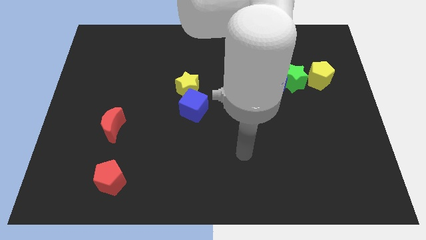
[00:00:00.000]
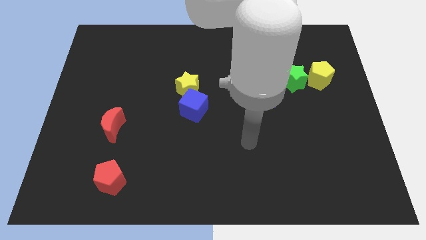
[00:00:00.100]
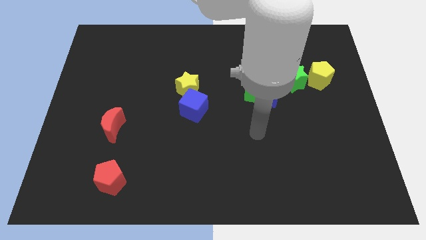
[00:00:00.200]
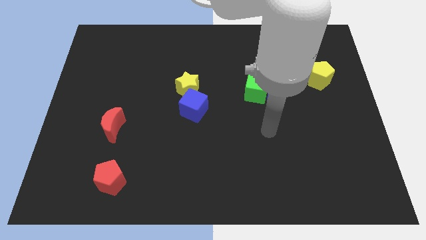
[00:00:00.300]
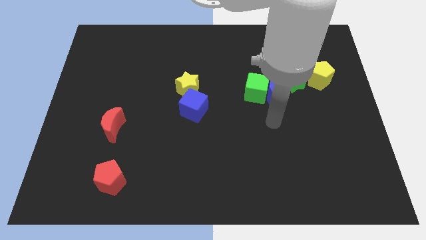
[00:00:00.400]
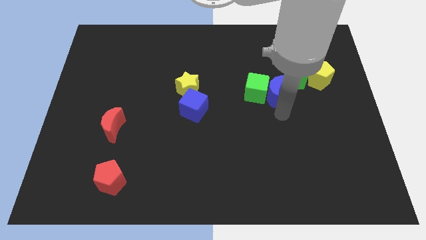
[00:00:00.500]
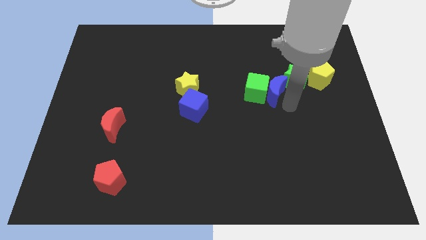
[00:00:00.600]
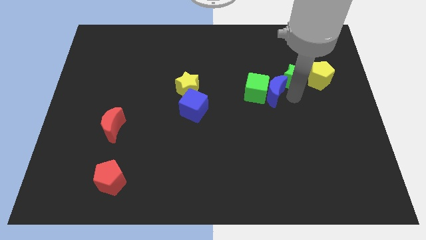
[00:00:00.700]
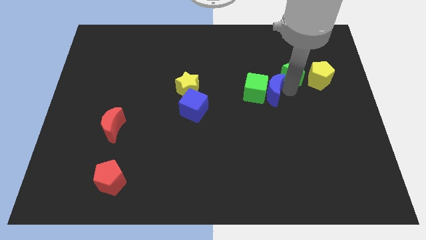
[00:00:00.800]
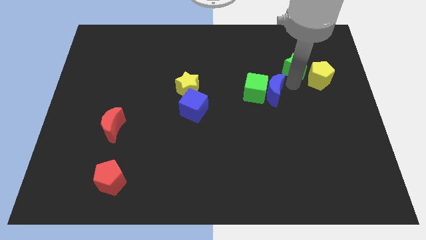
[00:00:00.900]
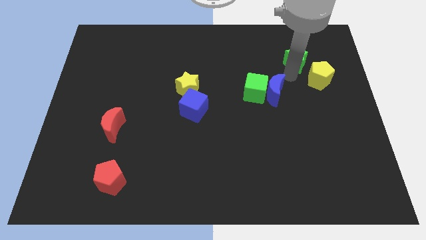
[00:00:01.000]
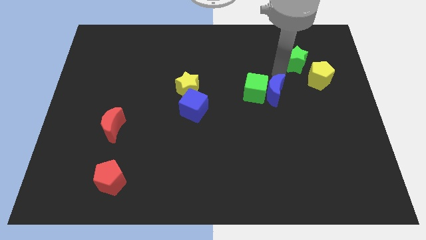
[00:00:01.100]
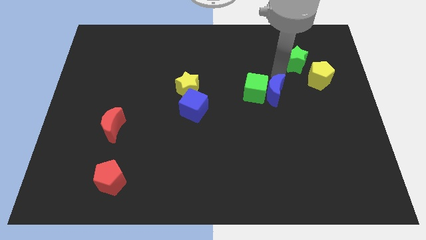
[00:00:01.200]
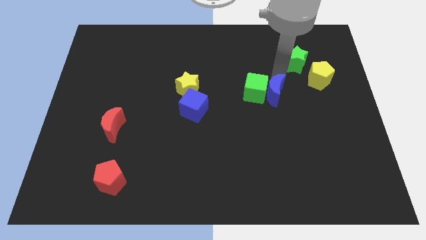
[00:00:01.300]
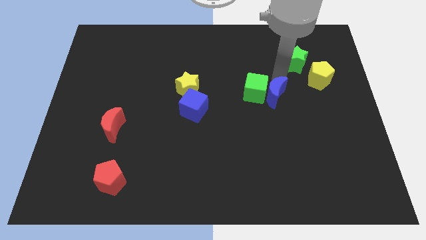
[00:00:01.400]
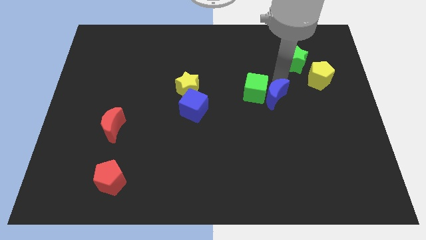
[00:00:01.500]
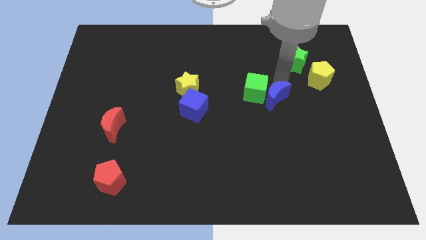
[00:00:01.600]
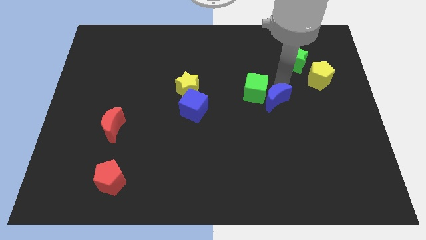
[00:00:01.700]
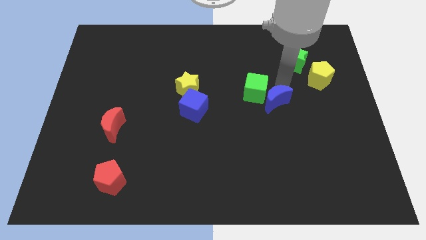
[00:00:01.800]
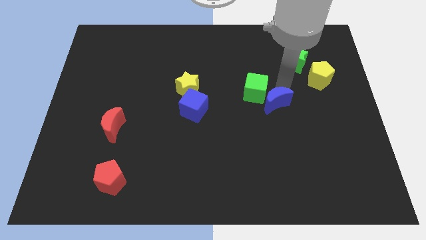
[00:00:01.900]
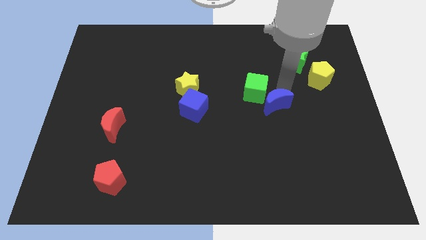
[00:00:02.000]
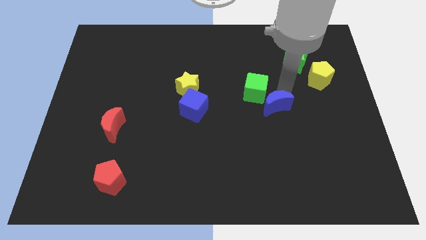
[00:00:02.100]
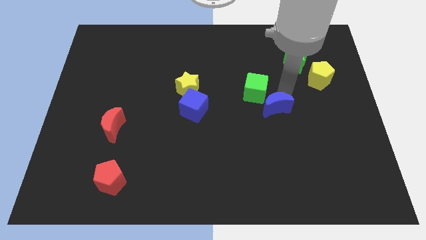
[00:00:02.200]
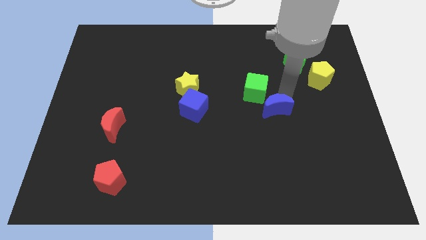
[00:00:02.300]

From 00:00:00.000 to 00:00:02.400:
move the blue moon away from the green cube and green star

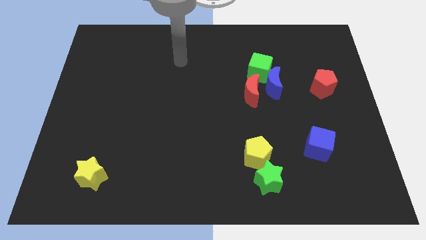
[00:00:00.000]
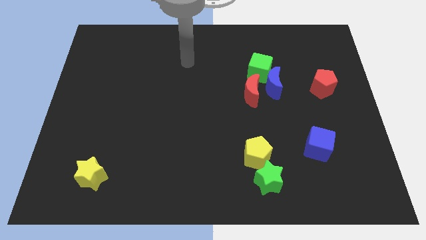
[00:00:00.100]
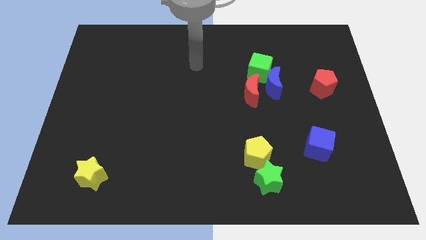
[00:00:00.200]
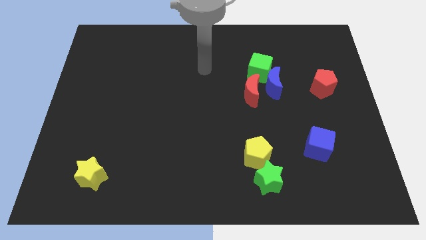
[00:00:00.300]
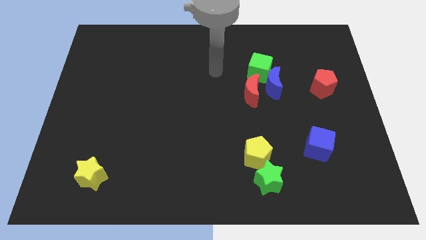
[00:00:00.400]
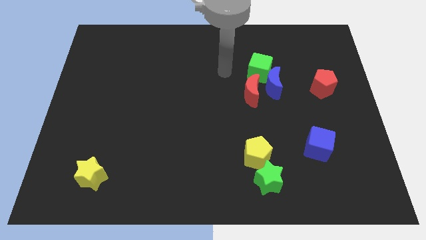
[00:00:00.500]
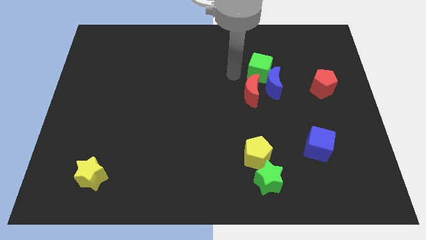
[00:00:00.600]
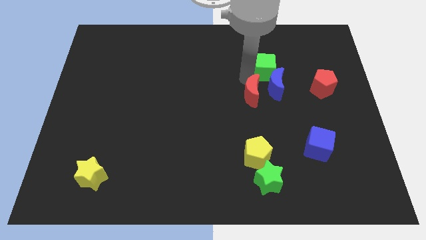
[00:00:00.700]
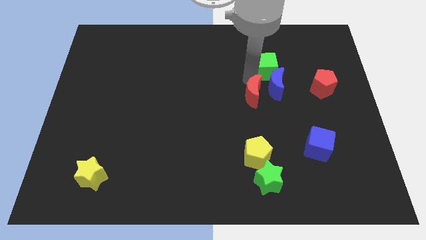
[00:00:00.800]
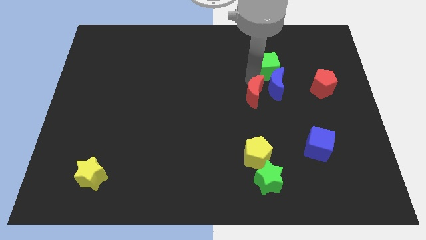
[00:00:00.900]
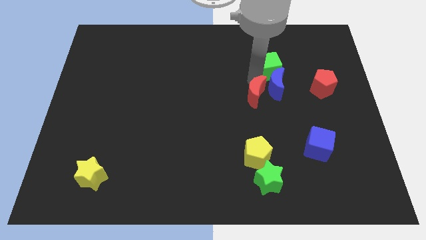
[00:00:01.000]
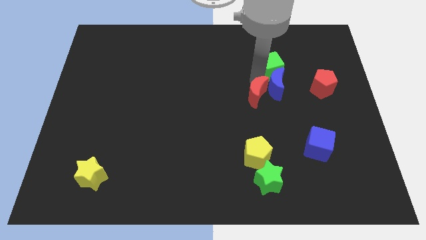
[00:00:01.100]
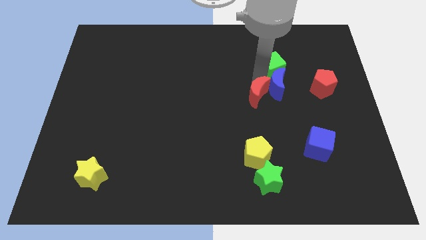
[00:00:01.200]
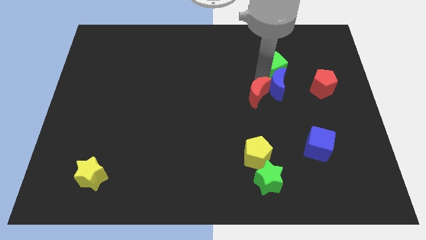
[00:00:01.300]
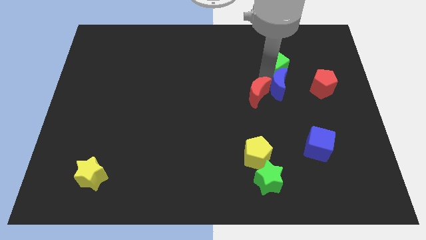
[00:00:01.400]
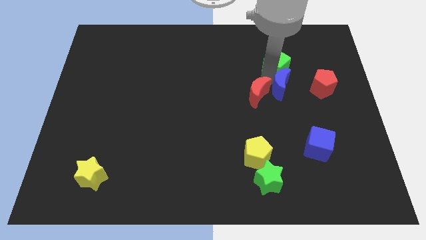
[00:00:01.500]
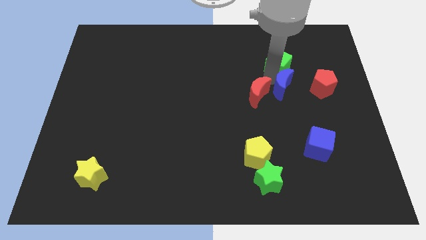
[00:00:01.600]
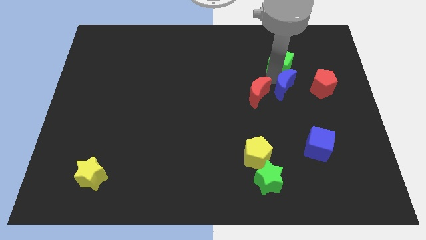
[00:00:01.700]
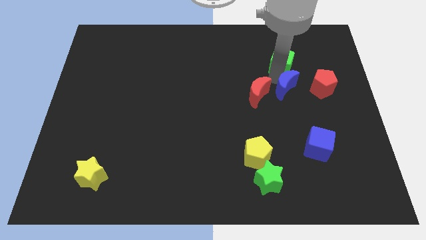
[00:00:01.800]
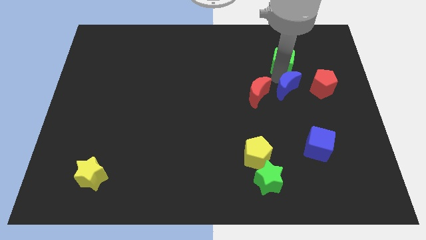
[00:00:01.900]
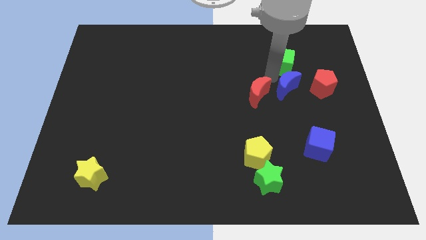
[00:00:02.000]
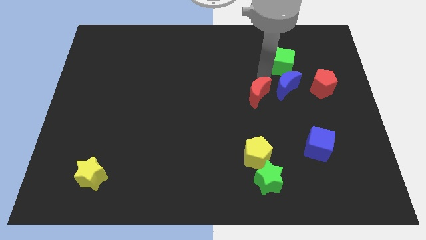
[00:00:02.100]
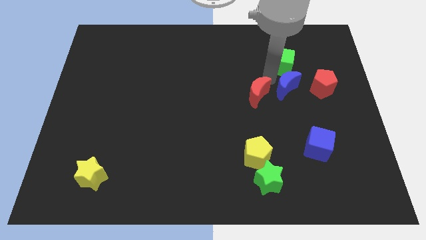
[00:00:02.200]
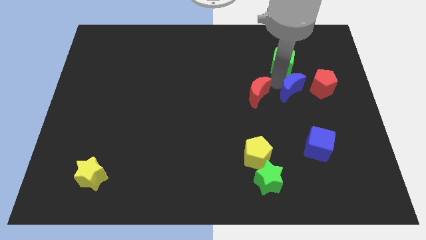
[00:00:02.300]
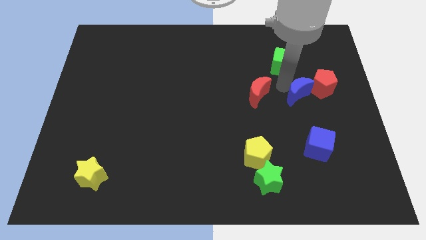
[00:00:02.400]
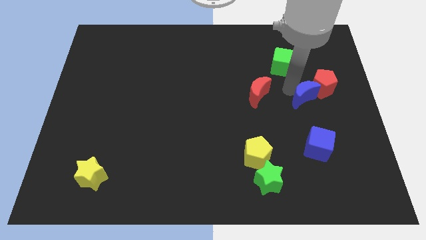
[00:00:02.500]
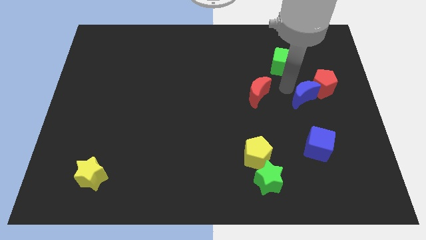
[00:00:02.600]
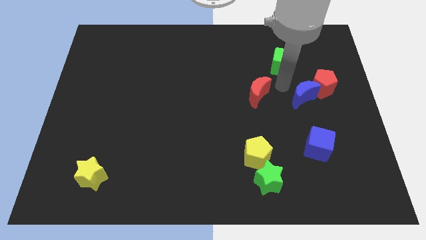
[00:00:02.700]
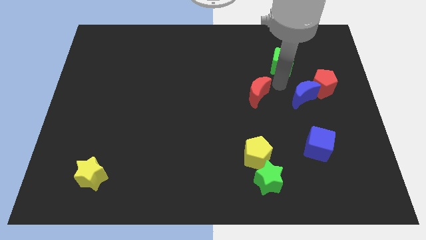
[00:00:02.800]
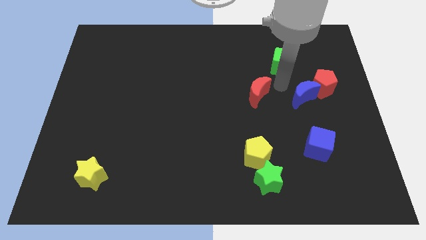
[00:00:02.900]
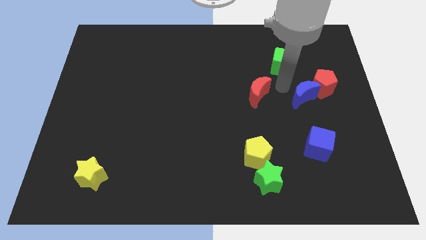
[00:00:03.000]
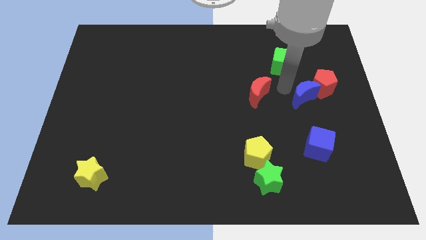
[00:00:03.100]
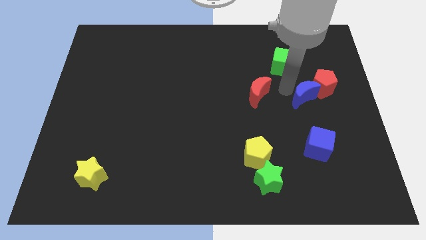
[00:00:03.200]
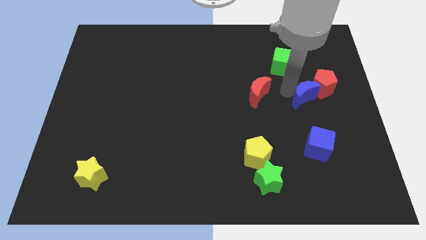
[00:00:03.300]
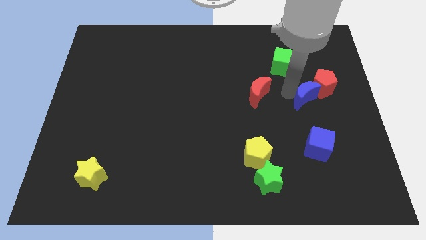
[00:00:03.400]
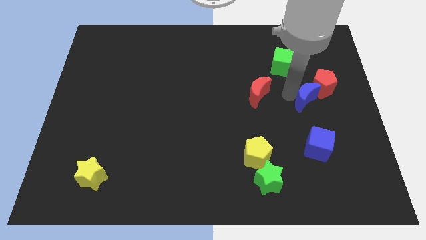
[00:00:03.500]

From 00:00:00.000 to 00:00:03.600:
separate the blue moon from the green cube and red moon

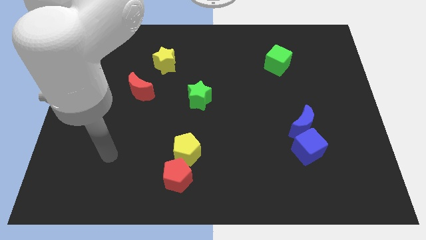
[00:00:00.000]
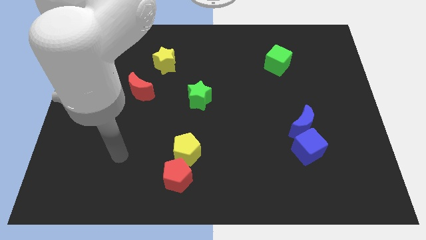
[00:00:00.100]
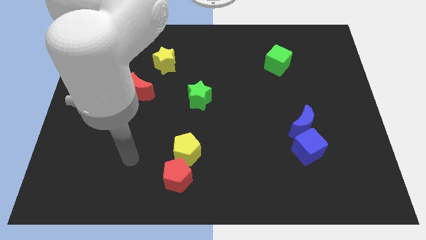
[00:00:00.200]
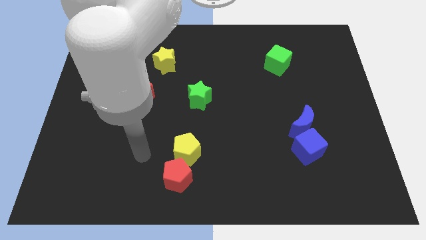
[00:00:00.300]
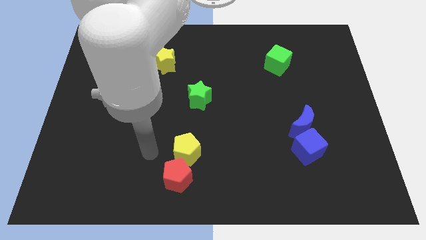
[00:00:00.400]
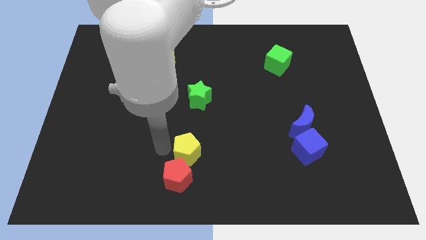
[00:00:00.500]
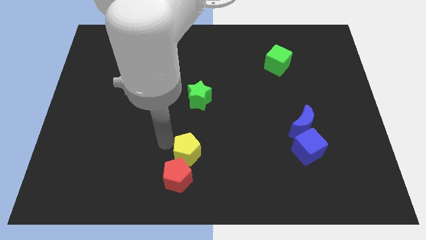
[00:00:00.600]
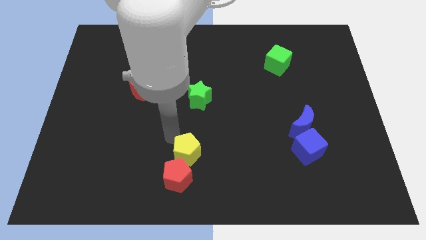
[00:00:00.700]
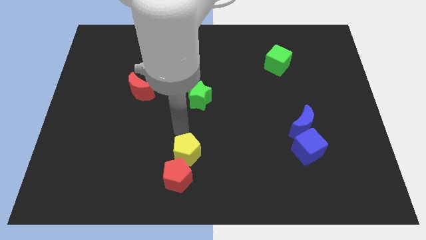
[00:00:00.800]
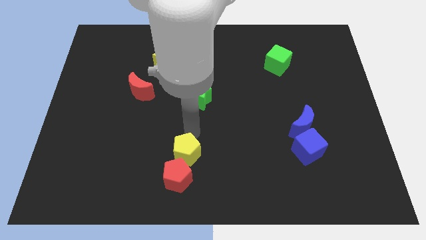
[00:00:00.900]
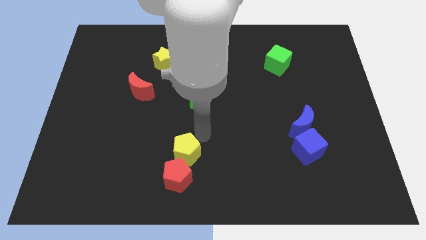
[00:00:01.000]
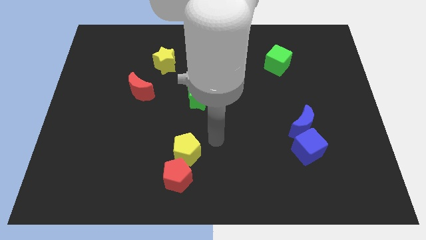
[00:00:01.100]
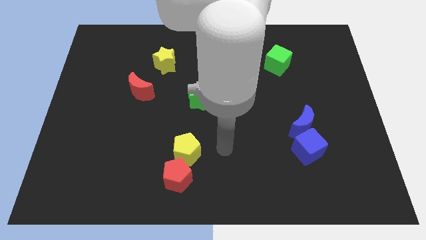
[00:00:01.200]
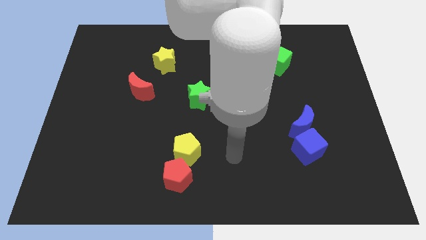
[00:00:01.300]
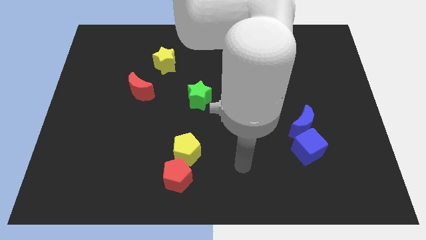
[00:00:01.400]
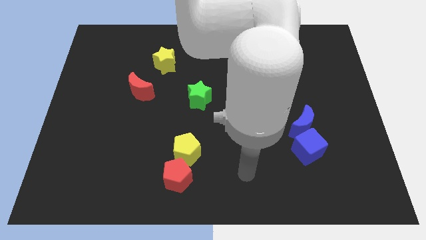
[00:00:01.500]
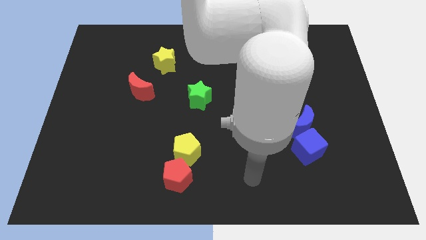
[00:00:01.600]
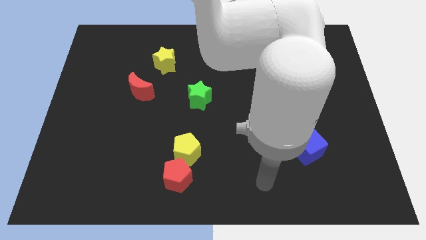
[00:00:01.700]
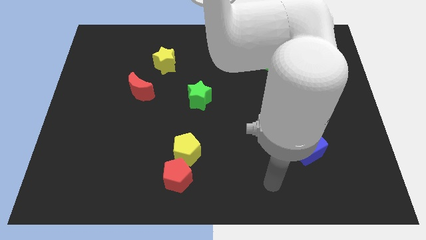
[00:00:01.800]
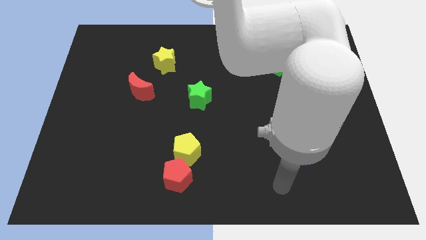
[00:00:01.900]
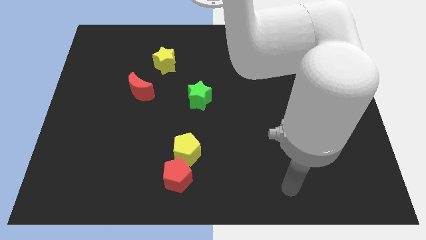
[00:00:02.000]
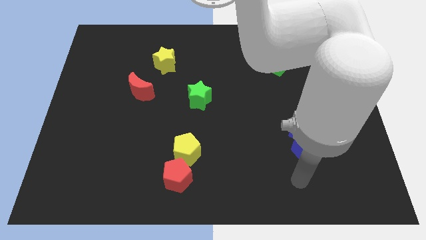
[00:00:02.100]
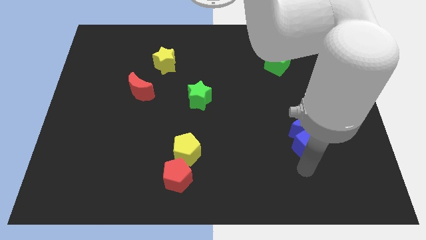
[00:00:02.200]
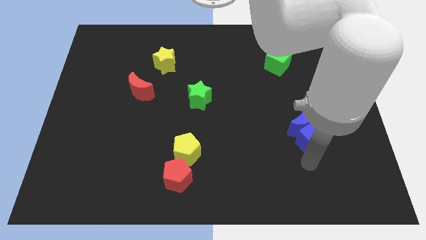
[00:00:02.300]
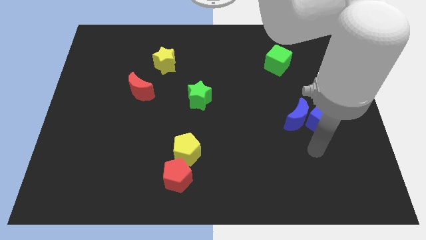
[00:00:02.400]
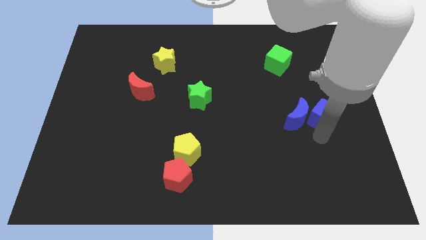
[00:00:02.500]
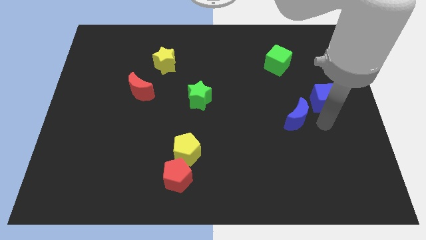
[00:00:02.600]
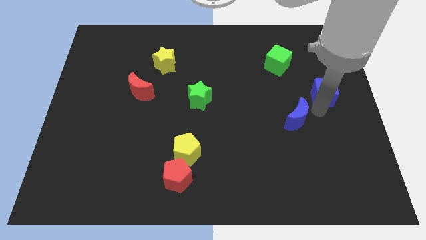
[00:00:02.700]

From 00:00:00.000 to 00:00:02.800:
move the blue moon away from the blue cube

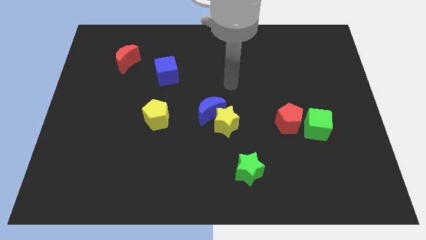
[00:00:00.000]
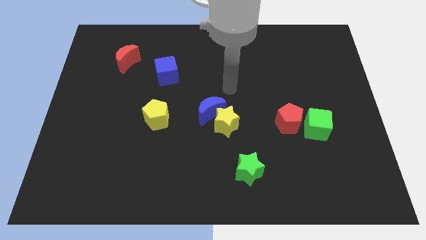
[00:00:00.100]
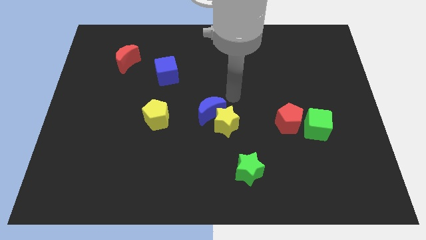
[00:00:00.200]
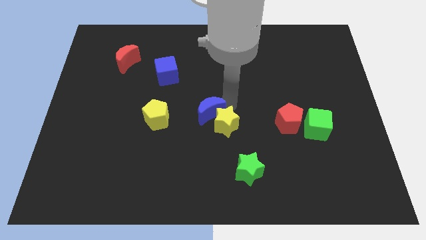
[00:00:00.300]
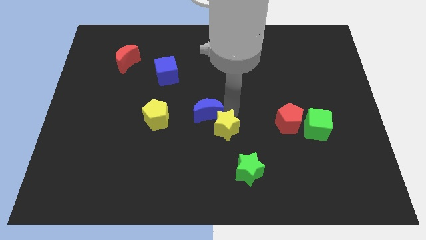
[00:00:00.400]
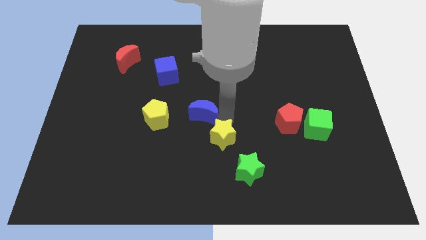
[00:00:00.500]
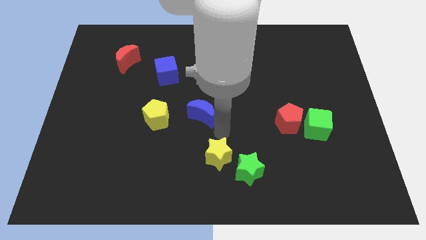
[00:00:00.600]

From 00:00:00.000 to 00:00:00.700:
move the blue moon away from the yellow star
